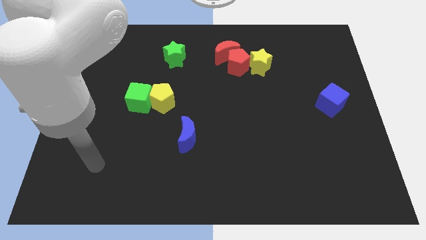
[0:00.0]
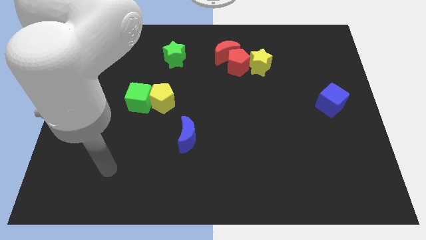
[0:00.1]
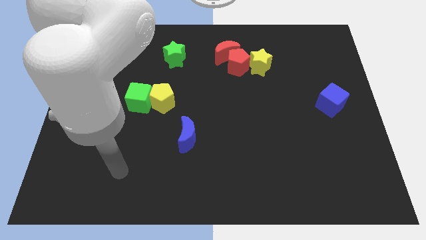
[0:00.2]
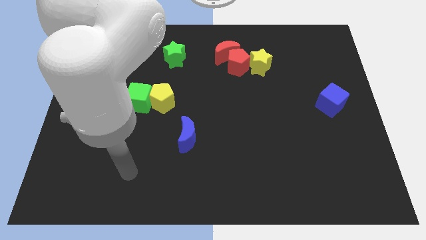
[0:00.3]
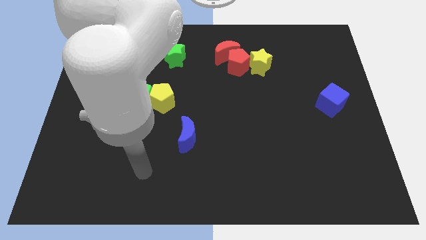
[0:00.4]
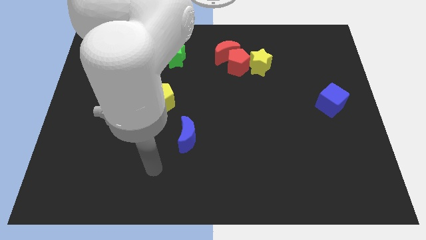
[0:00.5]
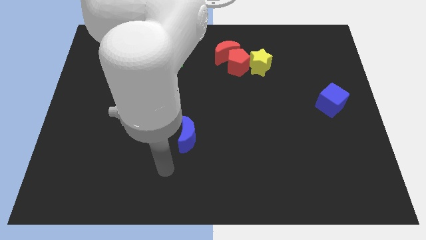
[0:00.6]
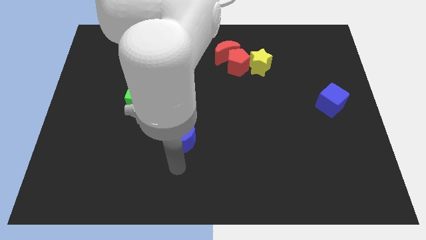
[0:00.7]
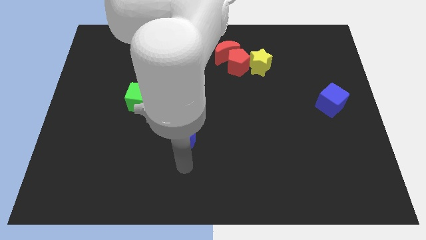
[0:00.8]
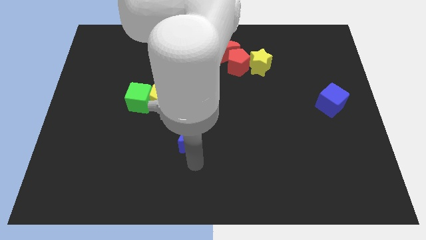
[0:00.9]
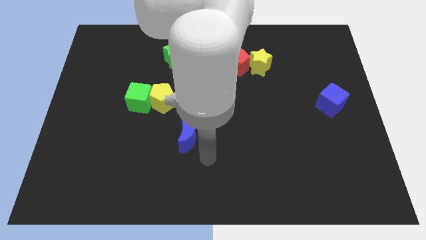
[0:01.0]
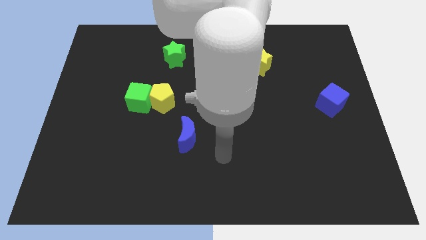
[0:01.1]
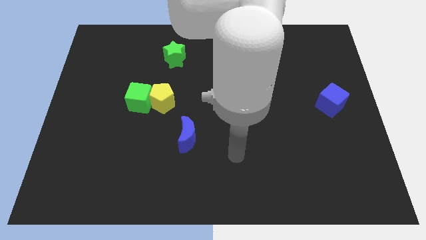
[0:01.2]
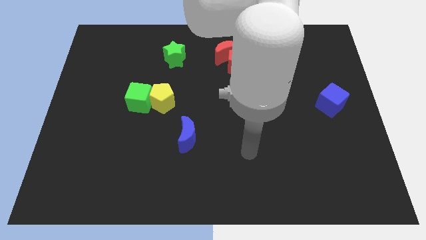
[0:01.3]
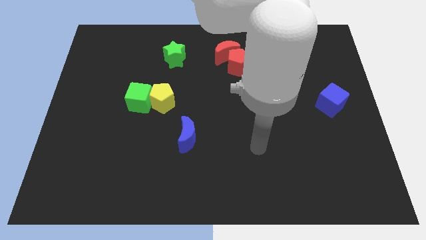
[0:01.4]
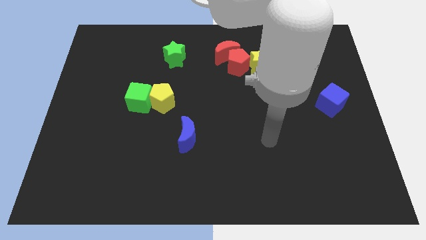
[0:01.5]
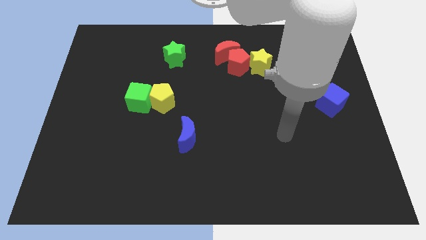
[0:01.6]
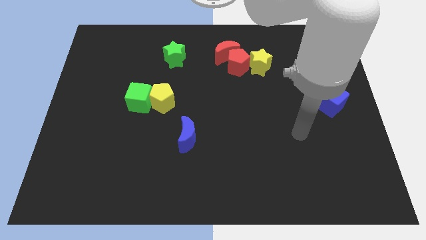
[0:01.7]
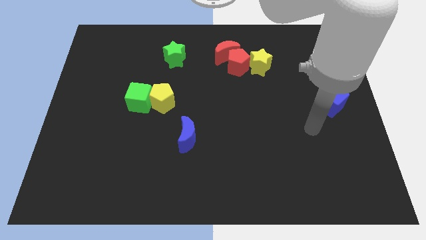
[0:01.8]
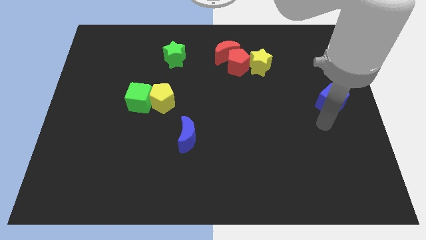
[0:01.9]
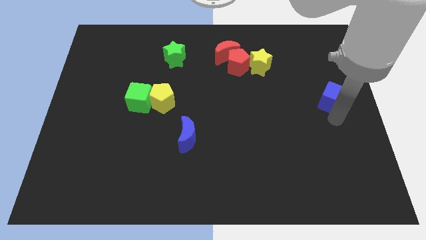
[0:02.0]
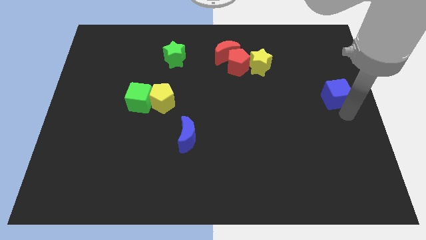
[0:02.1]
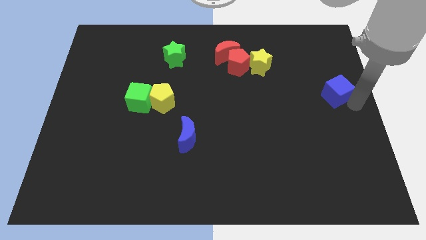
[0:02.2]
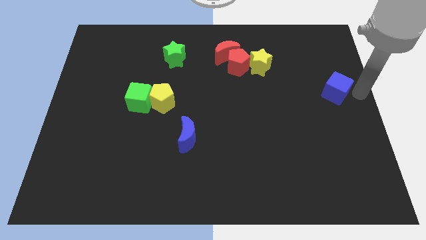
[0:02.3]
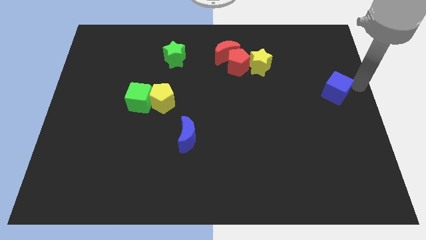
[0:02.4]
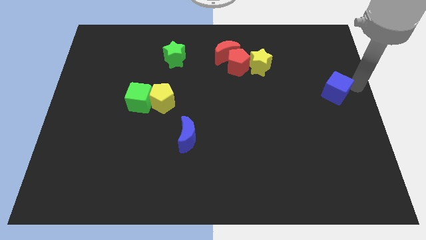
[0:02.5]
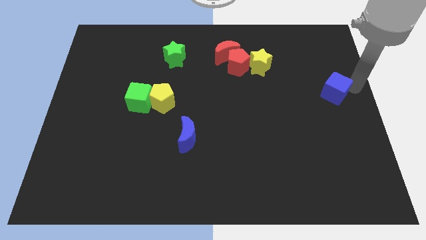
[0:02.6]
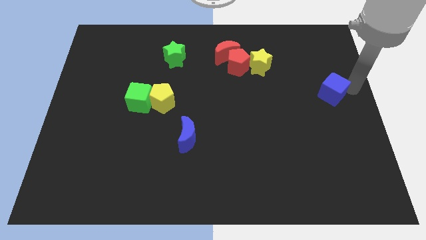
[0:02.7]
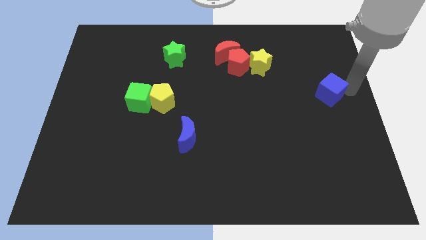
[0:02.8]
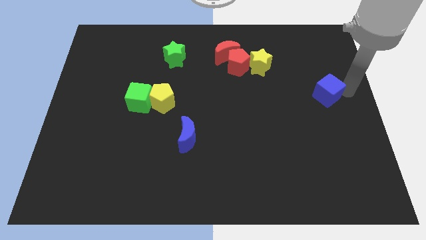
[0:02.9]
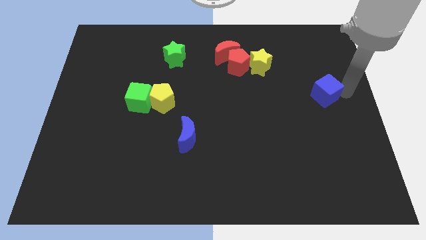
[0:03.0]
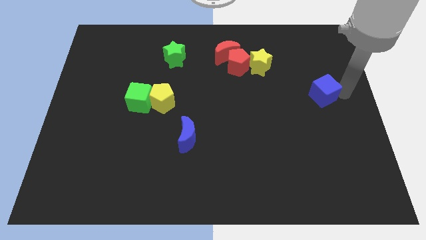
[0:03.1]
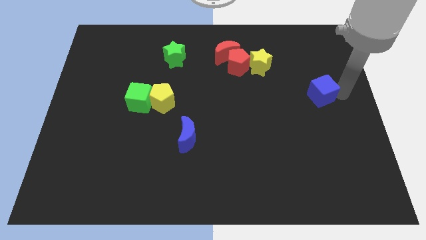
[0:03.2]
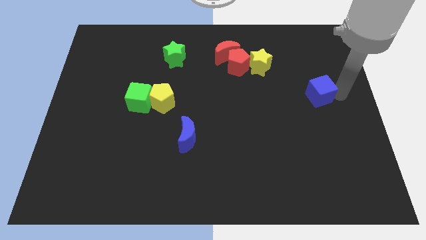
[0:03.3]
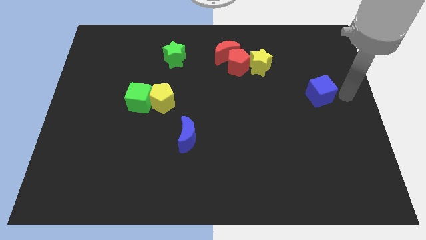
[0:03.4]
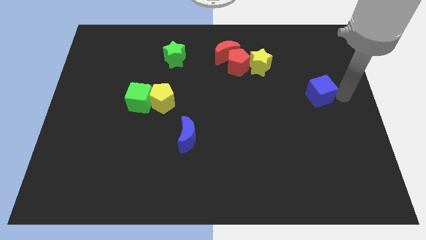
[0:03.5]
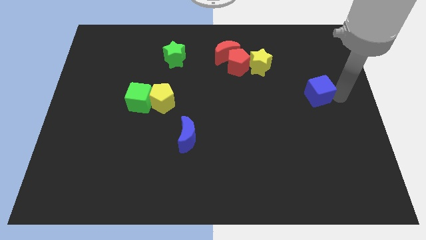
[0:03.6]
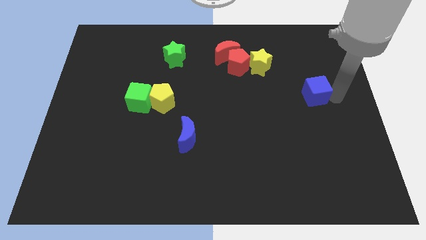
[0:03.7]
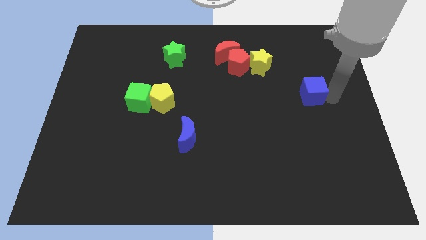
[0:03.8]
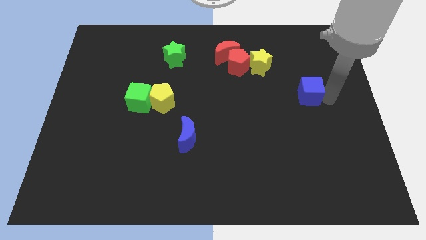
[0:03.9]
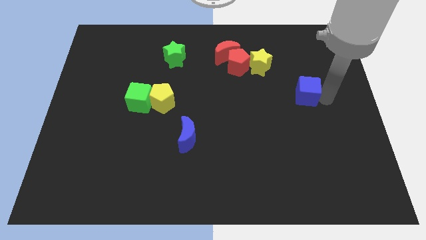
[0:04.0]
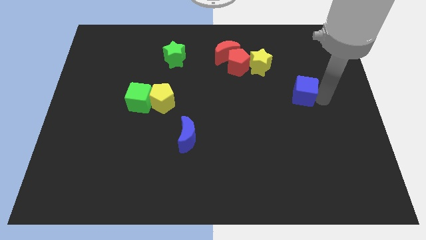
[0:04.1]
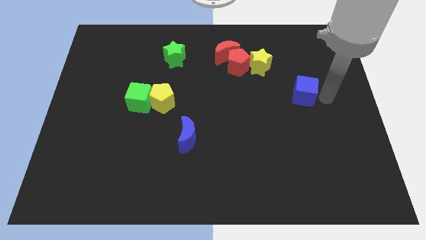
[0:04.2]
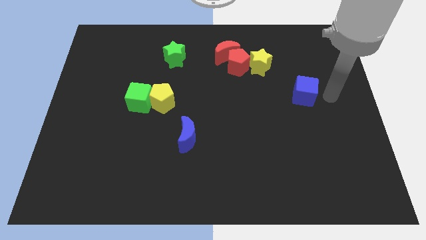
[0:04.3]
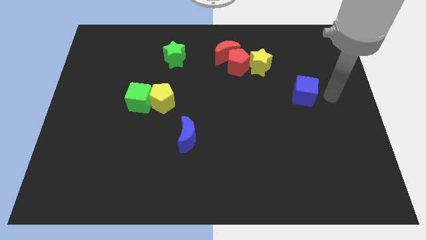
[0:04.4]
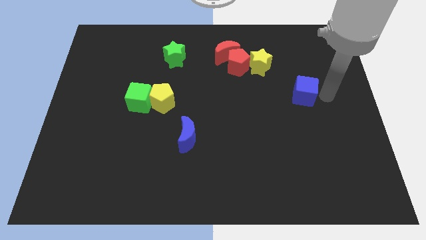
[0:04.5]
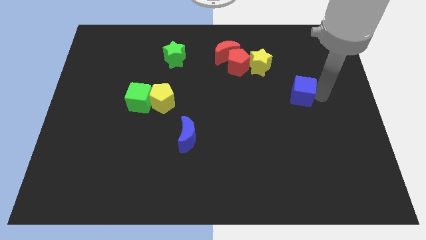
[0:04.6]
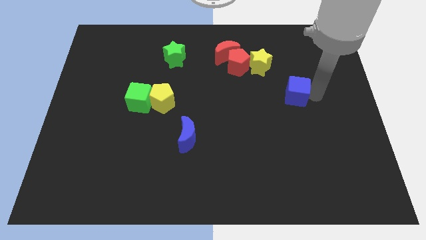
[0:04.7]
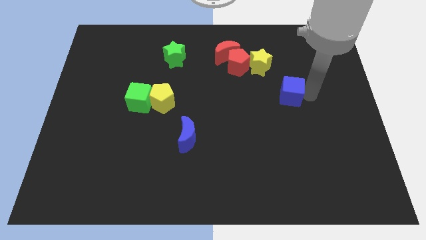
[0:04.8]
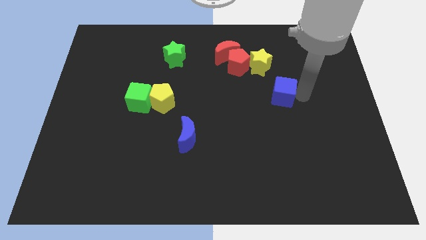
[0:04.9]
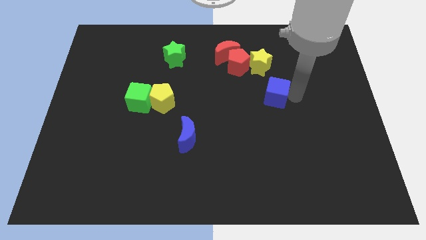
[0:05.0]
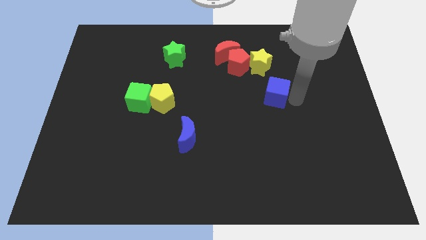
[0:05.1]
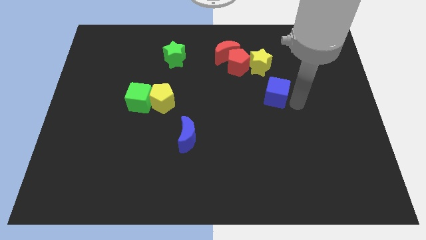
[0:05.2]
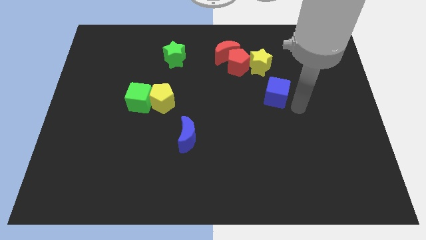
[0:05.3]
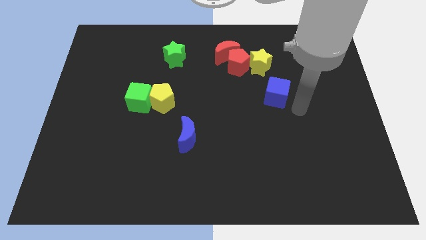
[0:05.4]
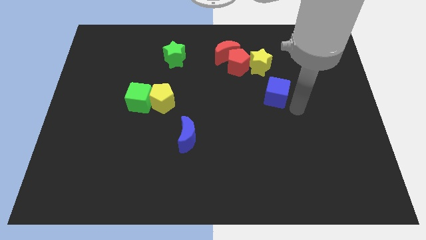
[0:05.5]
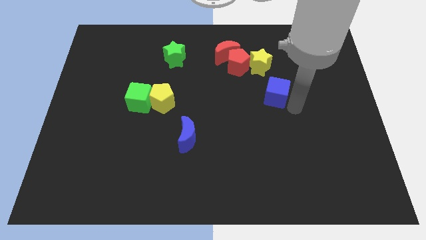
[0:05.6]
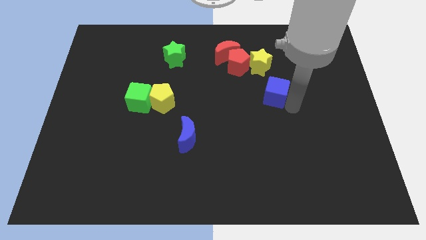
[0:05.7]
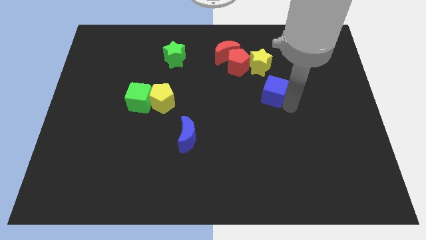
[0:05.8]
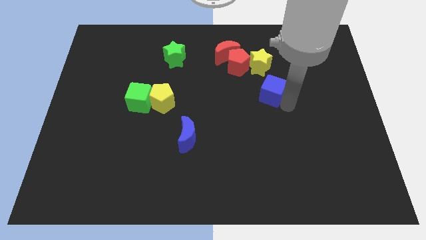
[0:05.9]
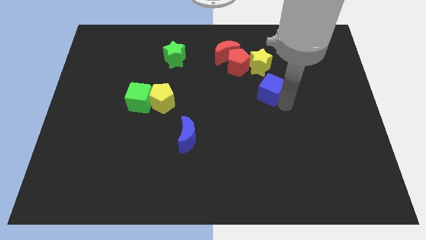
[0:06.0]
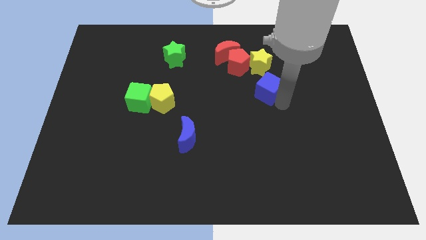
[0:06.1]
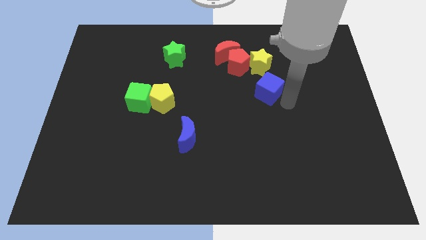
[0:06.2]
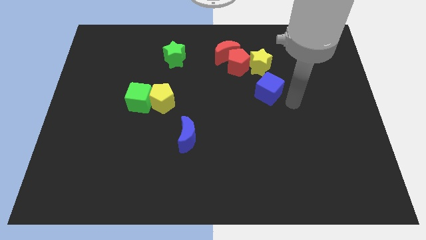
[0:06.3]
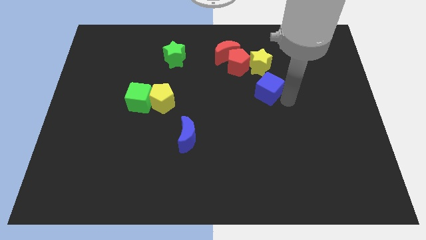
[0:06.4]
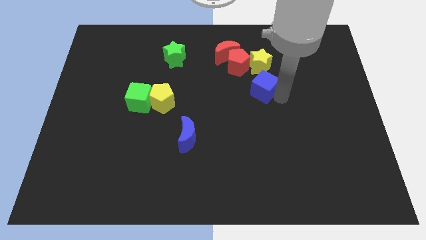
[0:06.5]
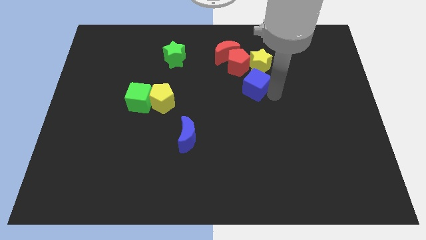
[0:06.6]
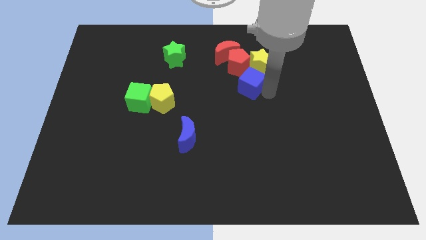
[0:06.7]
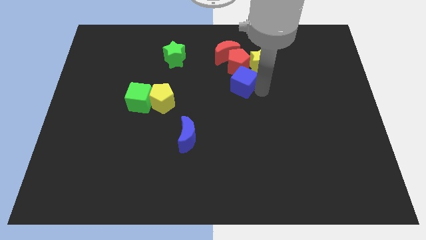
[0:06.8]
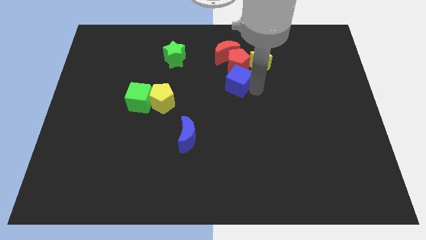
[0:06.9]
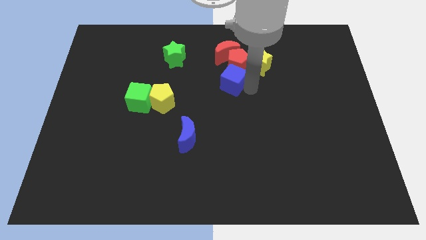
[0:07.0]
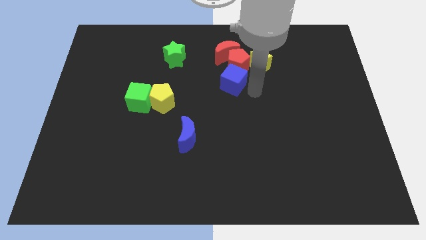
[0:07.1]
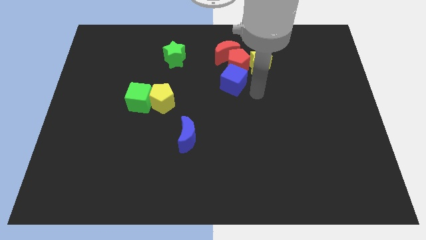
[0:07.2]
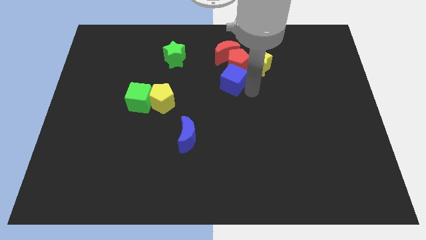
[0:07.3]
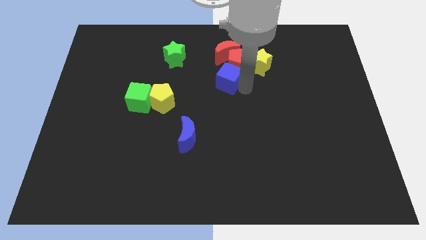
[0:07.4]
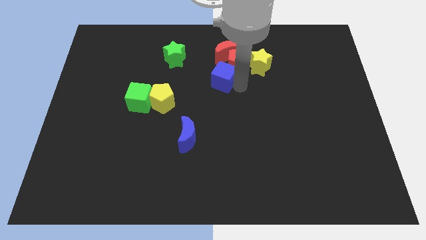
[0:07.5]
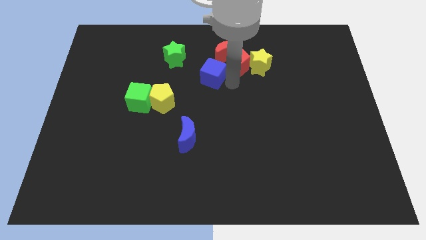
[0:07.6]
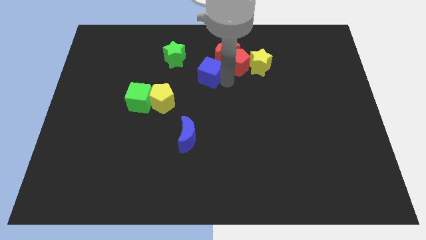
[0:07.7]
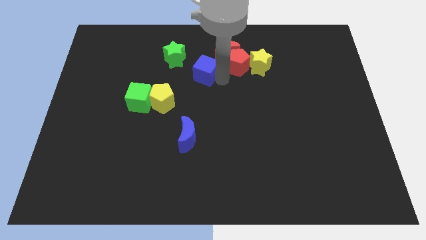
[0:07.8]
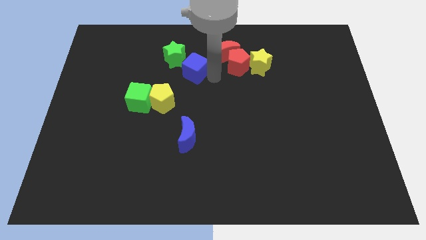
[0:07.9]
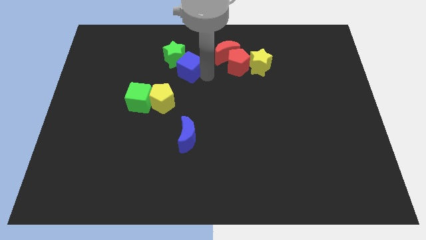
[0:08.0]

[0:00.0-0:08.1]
put the blue cube next to the green star
